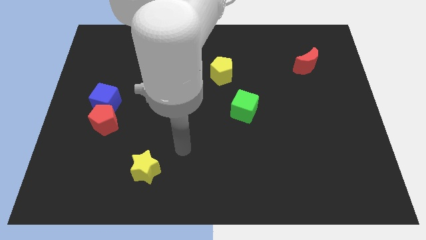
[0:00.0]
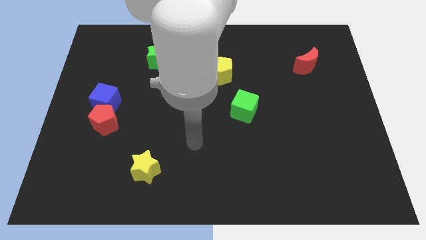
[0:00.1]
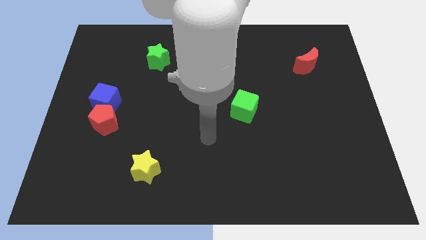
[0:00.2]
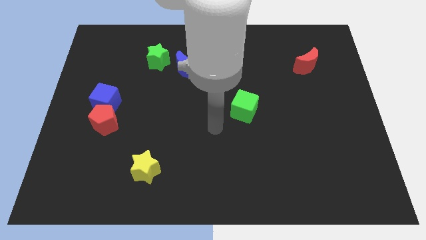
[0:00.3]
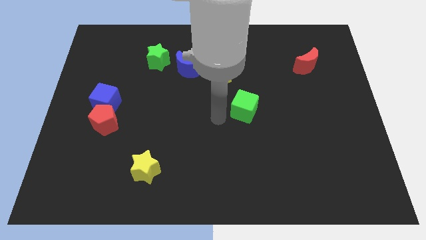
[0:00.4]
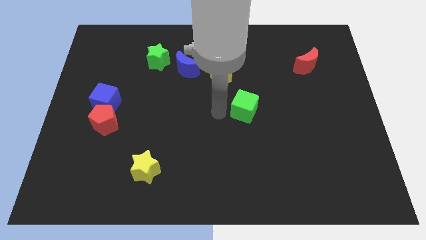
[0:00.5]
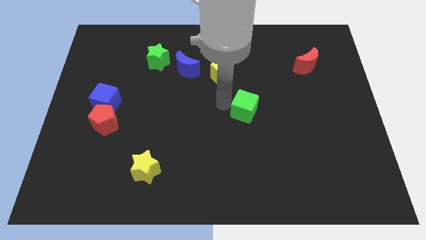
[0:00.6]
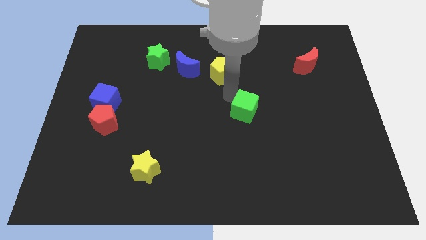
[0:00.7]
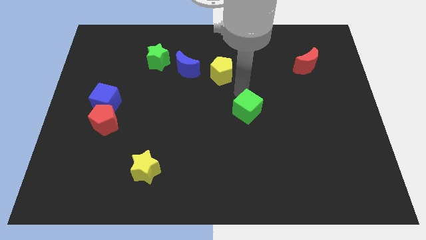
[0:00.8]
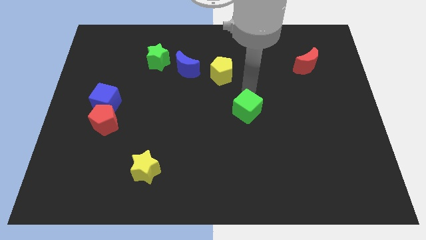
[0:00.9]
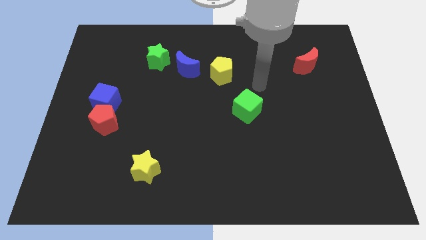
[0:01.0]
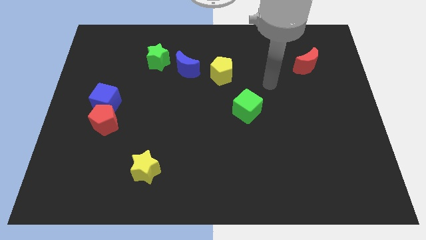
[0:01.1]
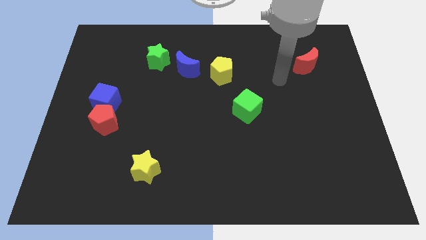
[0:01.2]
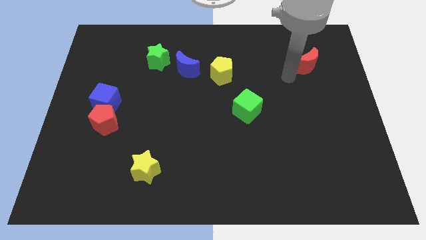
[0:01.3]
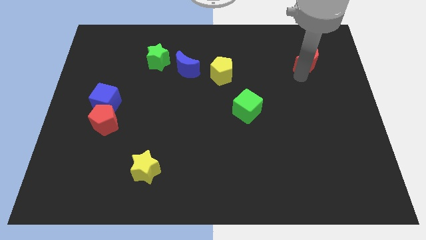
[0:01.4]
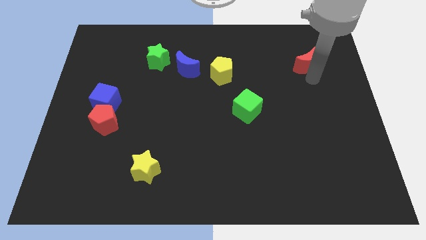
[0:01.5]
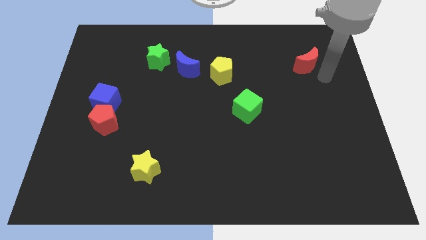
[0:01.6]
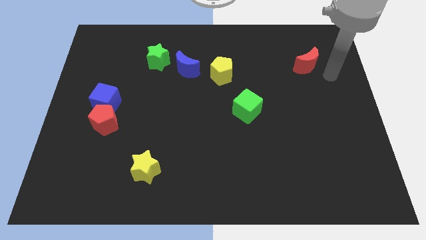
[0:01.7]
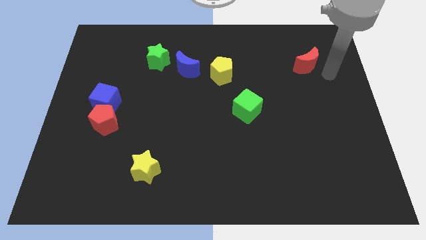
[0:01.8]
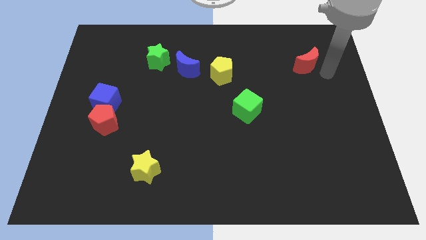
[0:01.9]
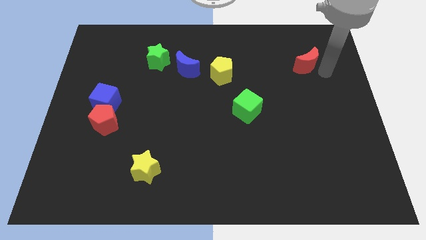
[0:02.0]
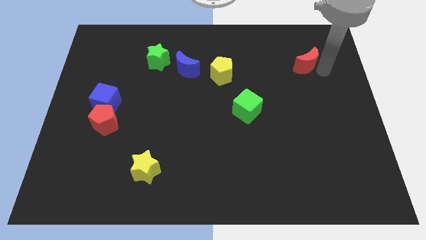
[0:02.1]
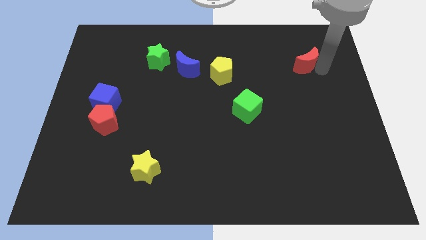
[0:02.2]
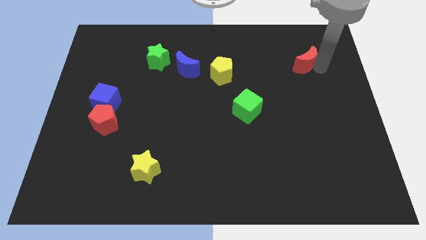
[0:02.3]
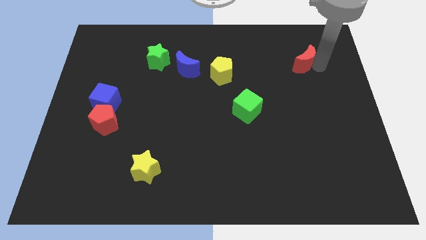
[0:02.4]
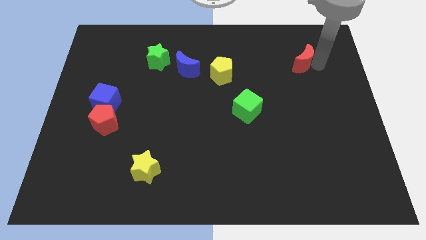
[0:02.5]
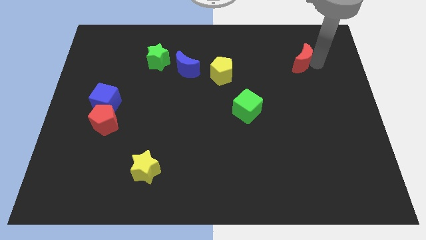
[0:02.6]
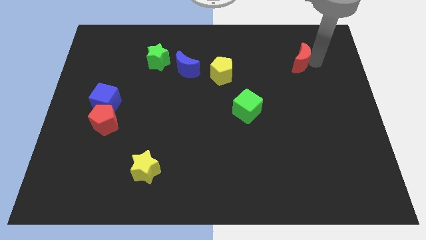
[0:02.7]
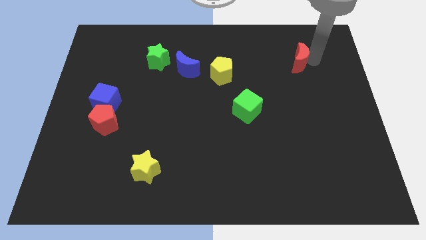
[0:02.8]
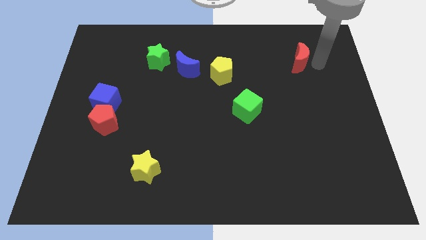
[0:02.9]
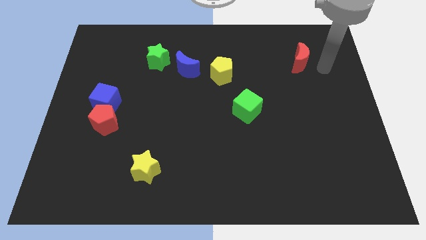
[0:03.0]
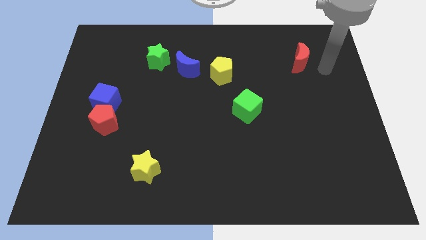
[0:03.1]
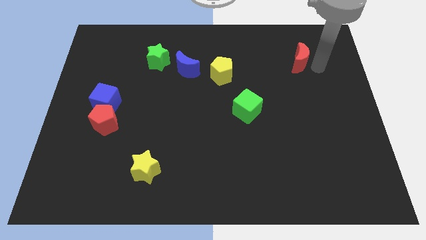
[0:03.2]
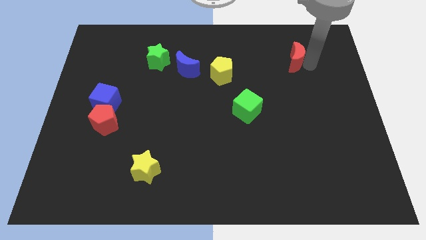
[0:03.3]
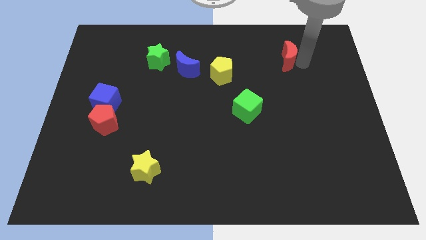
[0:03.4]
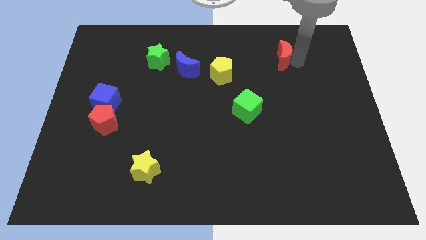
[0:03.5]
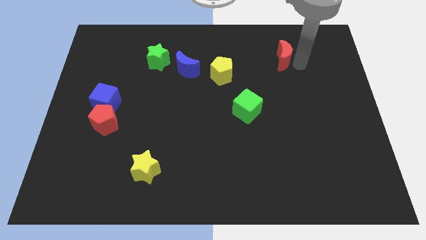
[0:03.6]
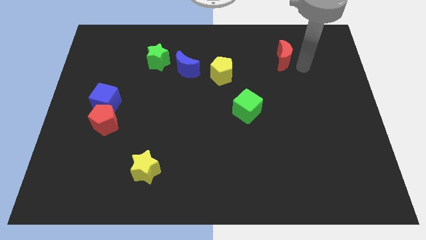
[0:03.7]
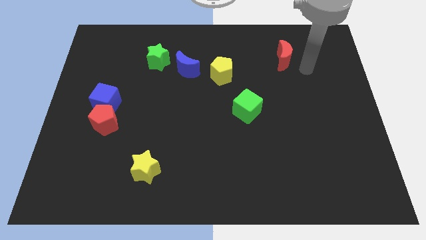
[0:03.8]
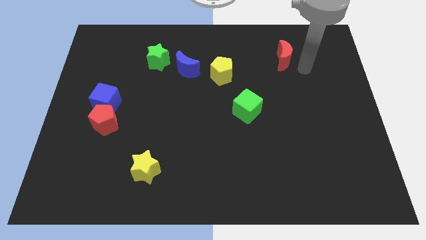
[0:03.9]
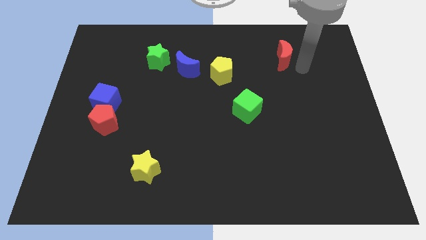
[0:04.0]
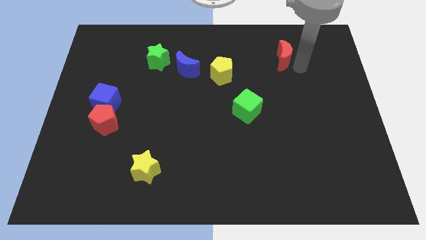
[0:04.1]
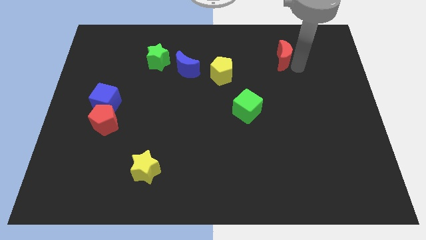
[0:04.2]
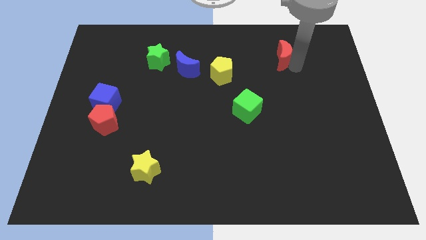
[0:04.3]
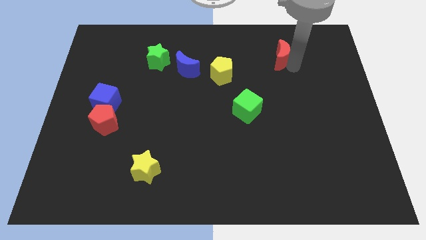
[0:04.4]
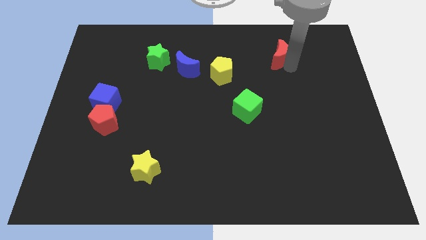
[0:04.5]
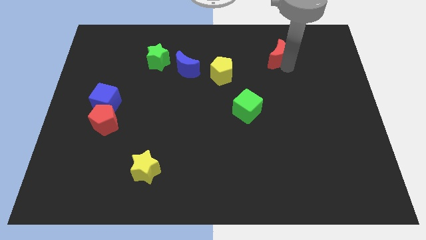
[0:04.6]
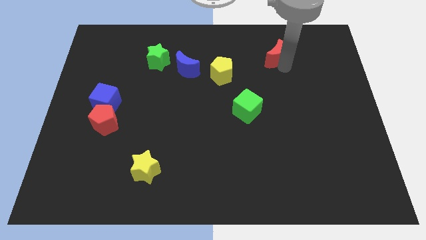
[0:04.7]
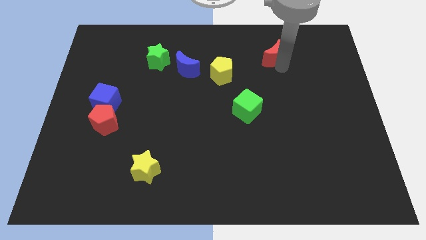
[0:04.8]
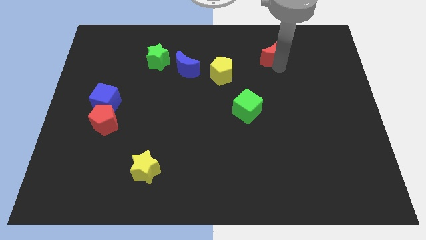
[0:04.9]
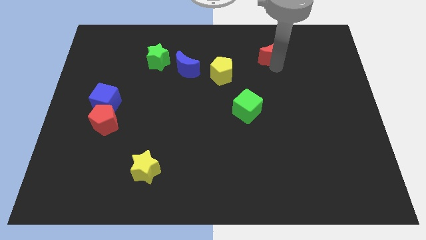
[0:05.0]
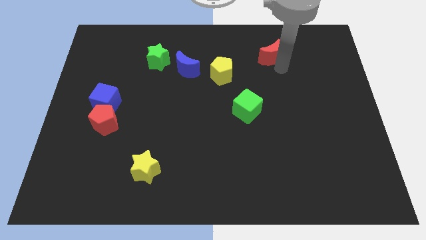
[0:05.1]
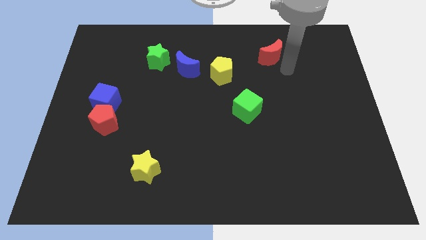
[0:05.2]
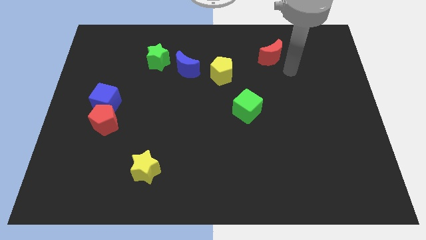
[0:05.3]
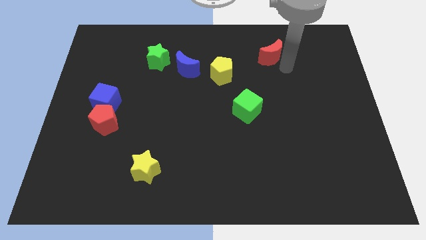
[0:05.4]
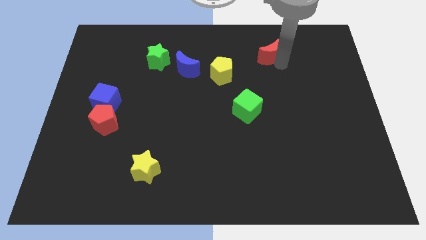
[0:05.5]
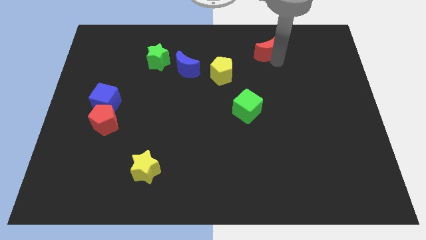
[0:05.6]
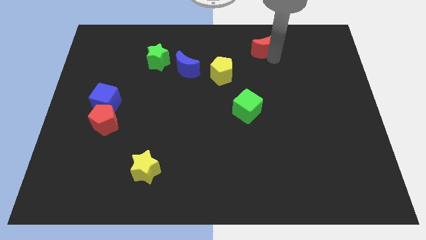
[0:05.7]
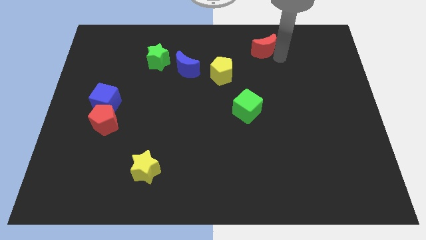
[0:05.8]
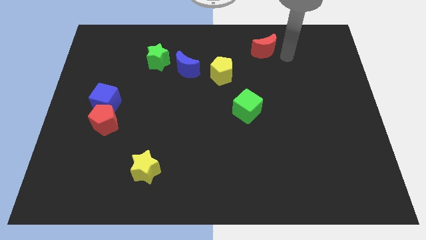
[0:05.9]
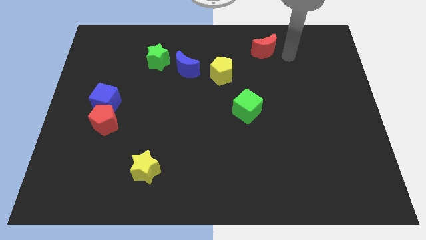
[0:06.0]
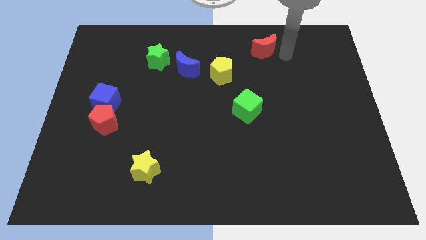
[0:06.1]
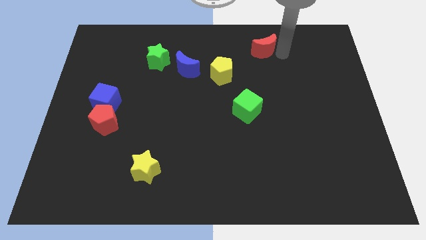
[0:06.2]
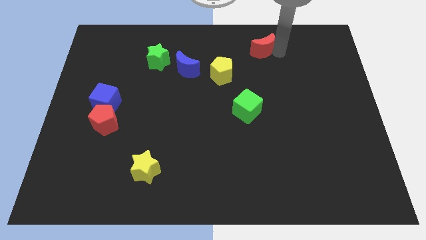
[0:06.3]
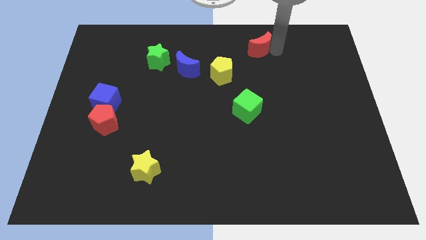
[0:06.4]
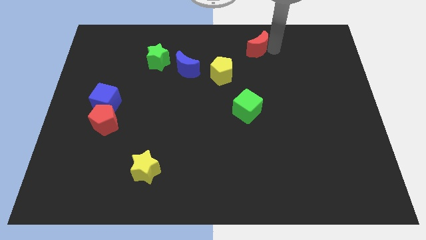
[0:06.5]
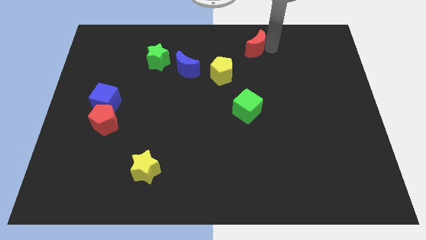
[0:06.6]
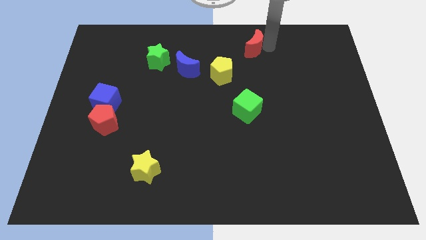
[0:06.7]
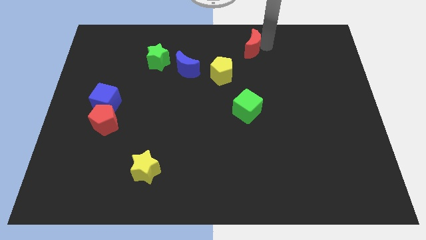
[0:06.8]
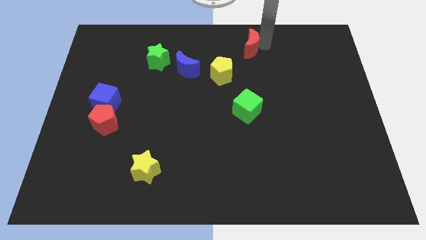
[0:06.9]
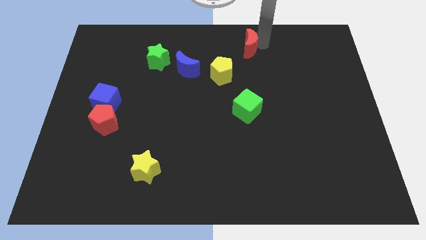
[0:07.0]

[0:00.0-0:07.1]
put the red moon to the top side
